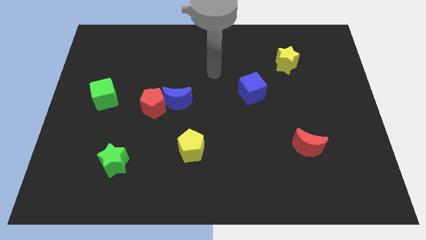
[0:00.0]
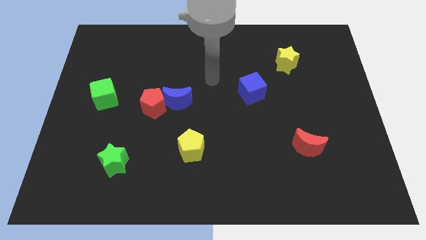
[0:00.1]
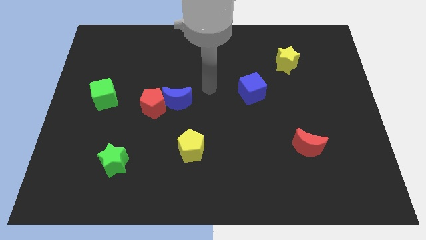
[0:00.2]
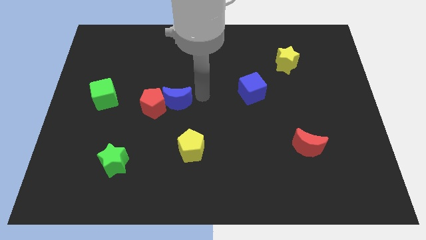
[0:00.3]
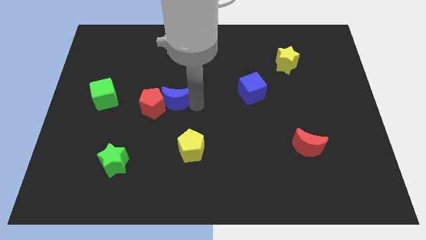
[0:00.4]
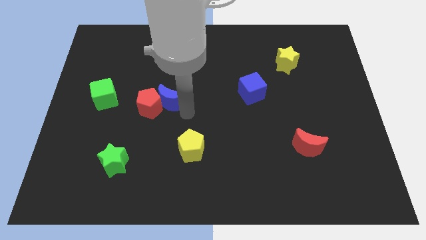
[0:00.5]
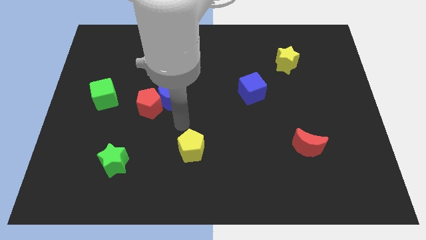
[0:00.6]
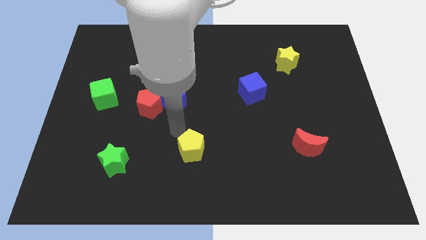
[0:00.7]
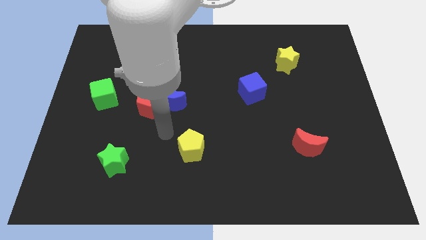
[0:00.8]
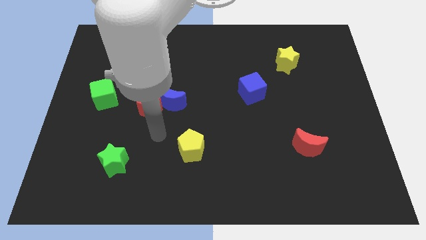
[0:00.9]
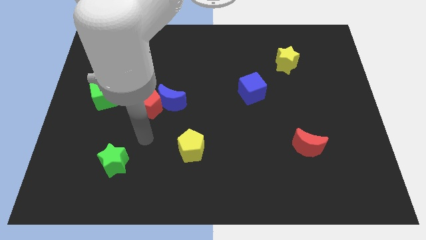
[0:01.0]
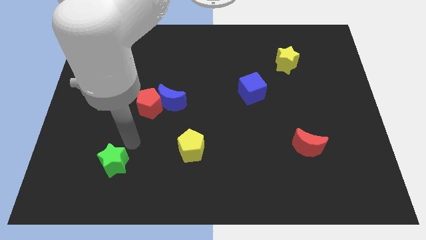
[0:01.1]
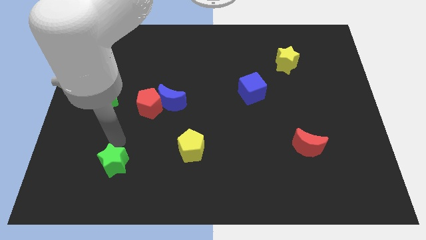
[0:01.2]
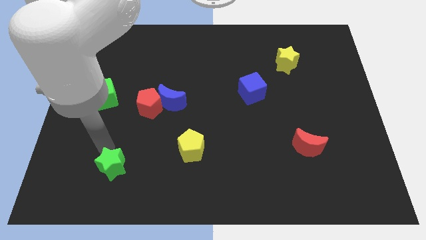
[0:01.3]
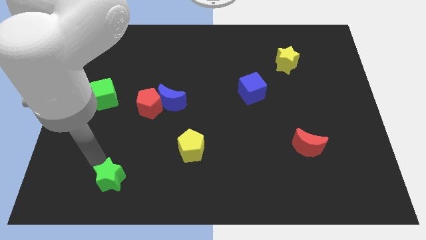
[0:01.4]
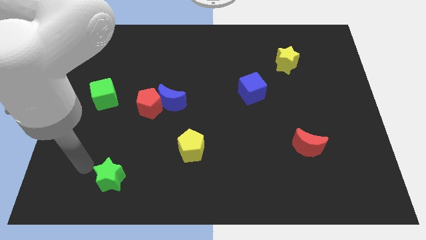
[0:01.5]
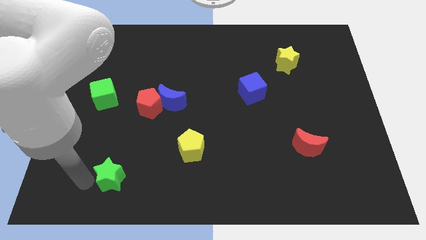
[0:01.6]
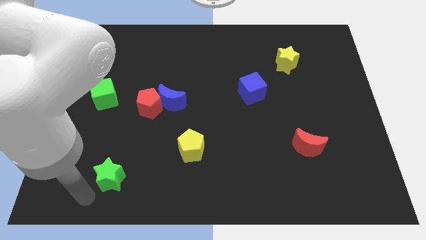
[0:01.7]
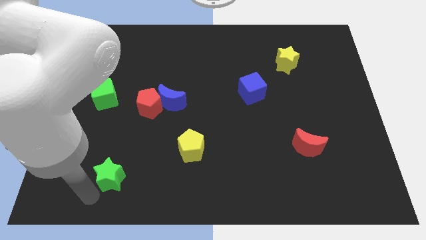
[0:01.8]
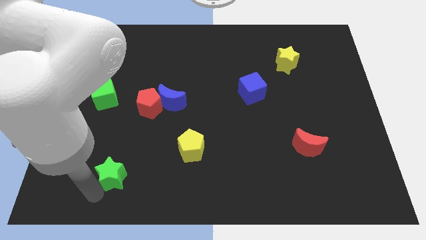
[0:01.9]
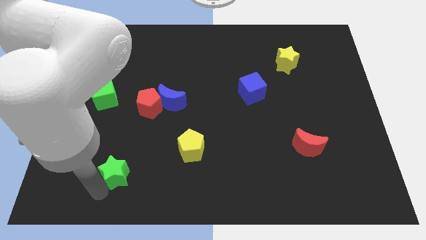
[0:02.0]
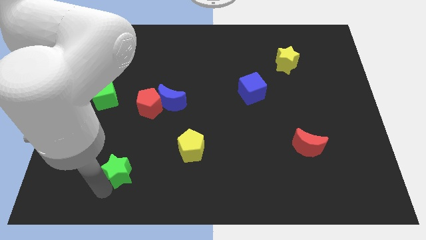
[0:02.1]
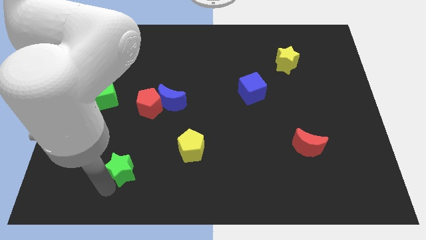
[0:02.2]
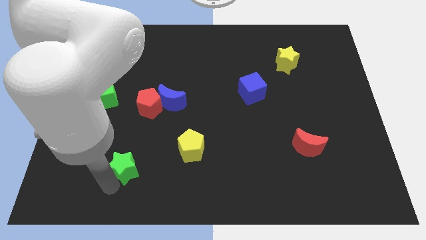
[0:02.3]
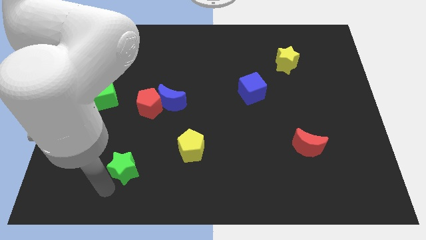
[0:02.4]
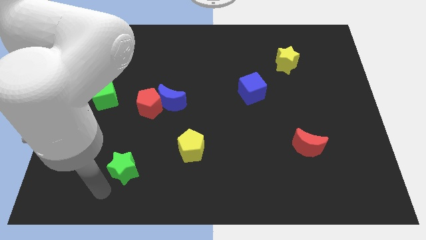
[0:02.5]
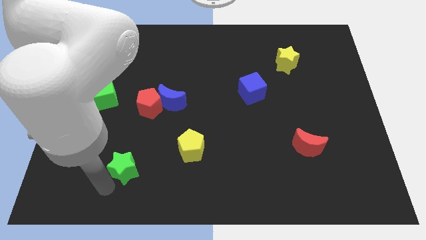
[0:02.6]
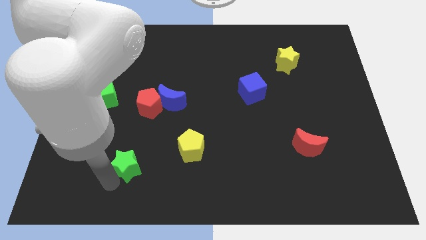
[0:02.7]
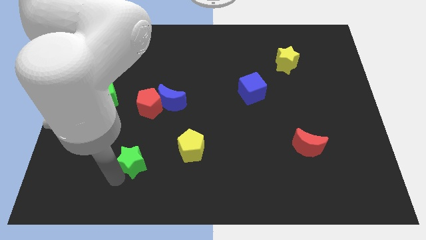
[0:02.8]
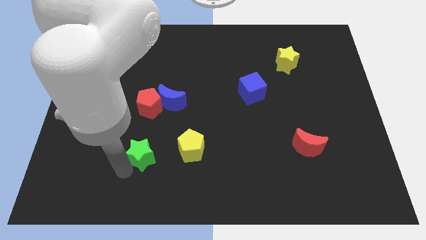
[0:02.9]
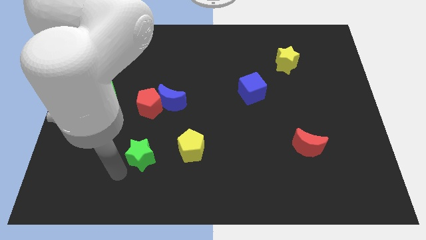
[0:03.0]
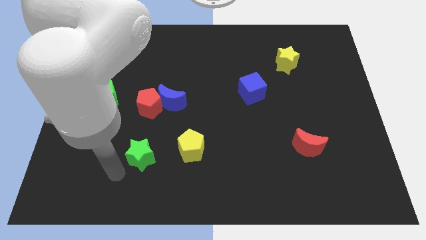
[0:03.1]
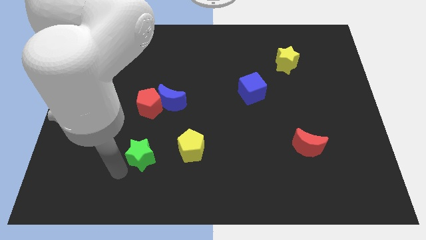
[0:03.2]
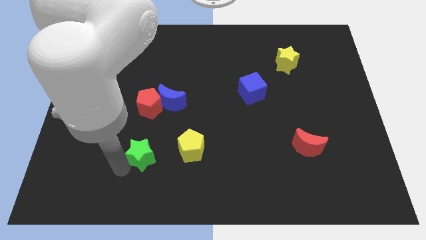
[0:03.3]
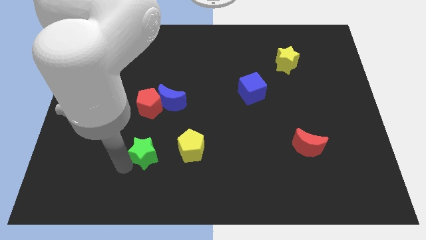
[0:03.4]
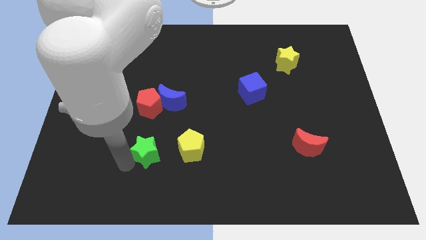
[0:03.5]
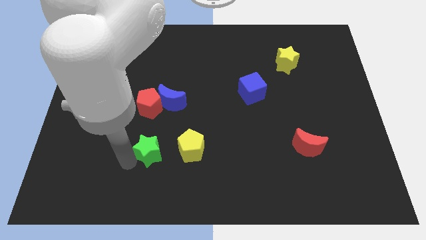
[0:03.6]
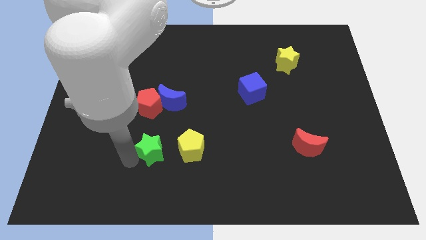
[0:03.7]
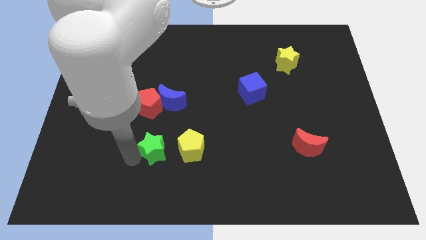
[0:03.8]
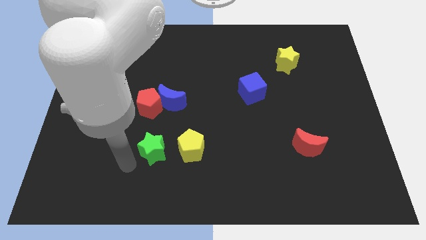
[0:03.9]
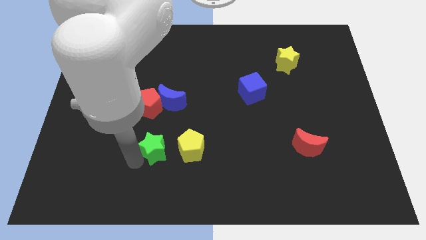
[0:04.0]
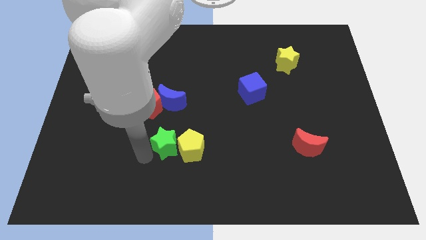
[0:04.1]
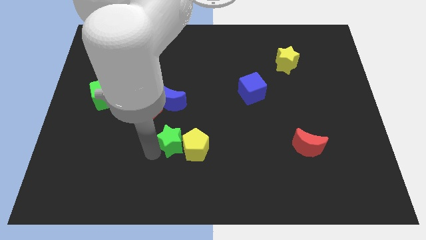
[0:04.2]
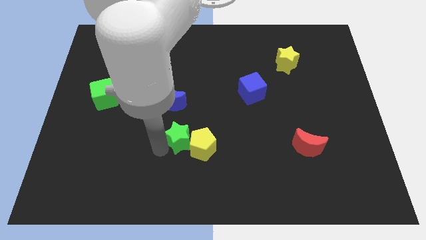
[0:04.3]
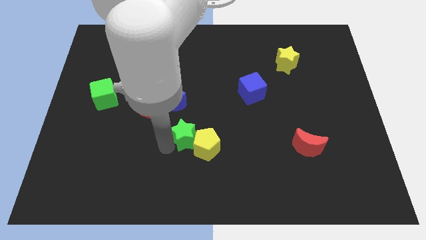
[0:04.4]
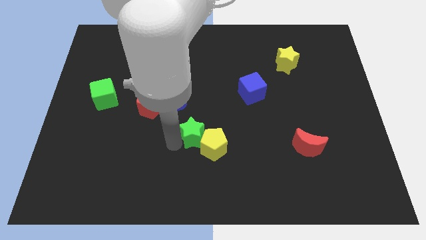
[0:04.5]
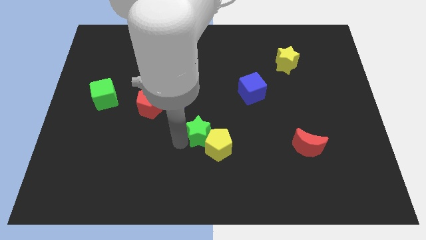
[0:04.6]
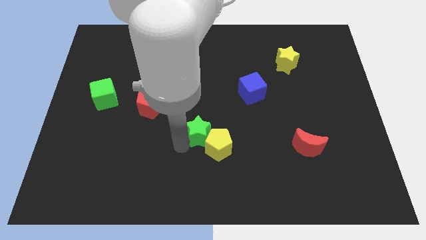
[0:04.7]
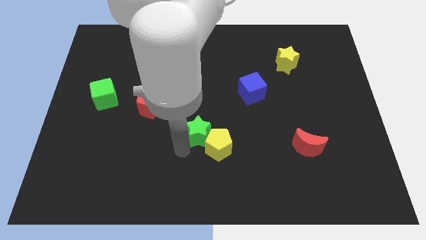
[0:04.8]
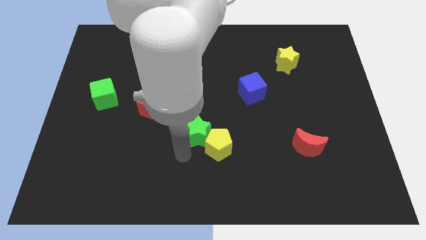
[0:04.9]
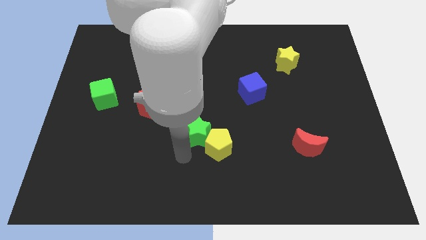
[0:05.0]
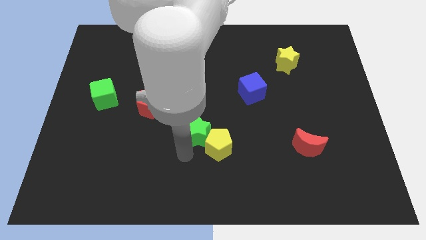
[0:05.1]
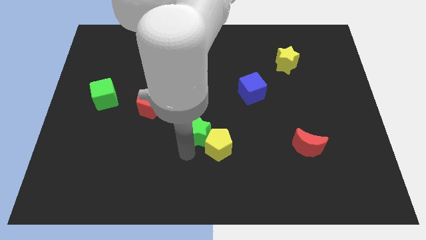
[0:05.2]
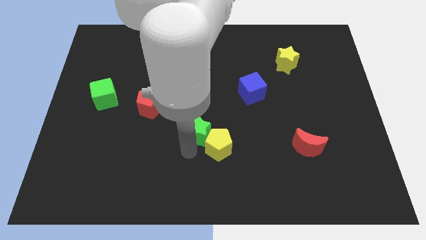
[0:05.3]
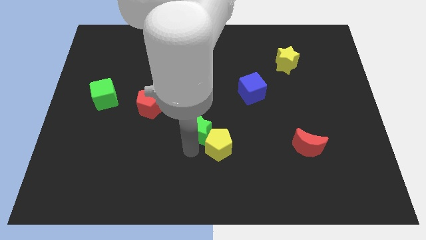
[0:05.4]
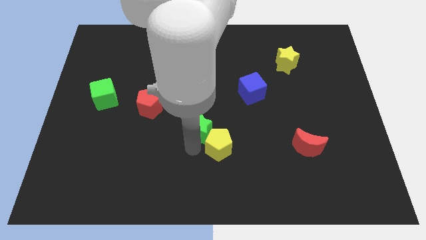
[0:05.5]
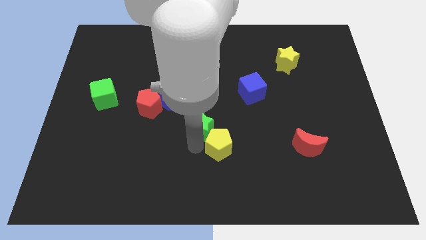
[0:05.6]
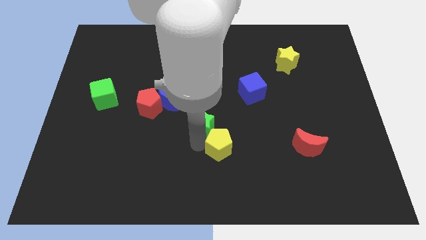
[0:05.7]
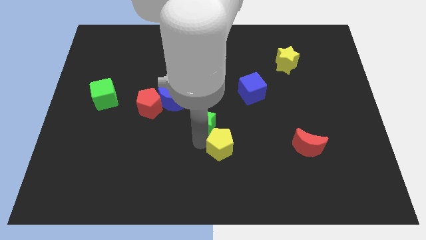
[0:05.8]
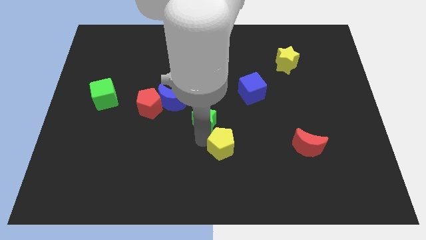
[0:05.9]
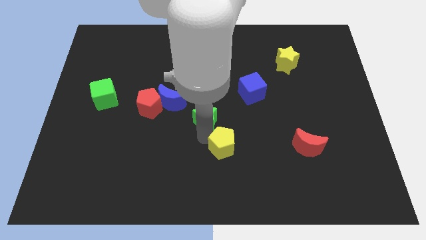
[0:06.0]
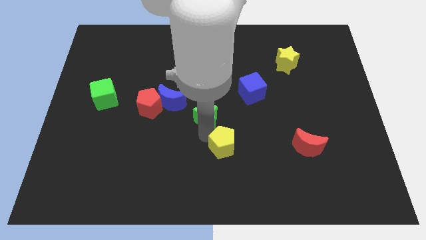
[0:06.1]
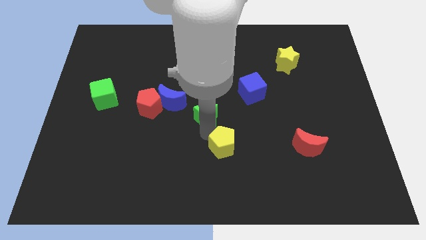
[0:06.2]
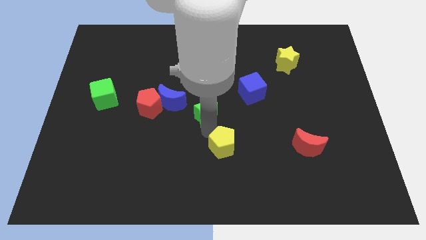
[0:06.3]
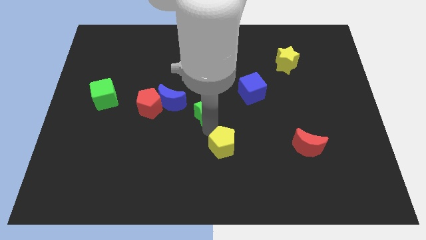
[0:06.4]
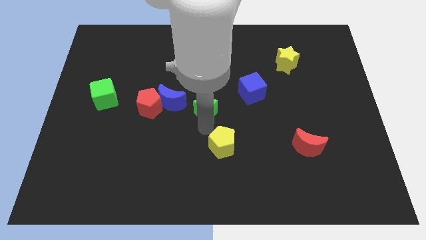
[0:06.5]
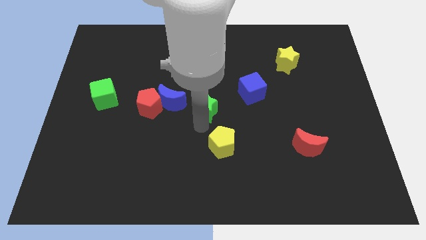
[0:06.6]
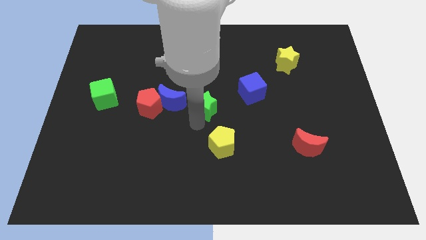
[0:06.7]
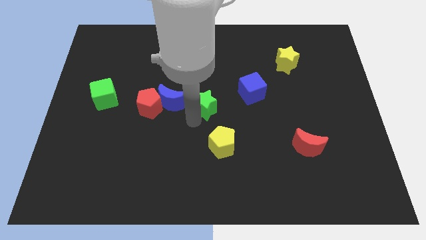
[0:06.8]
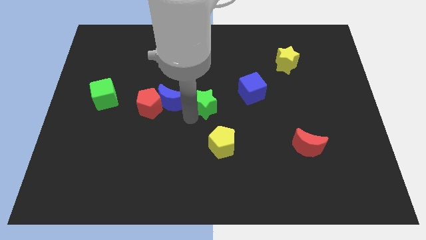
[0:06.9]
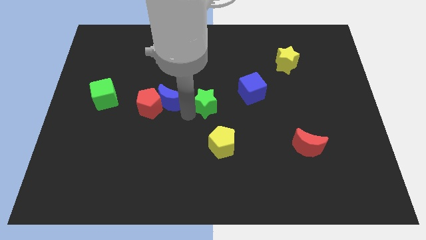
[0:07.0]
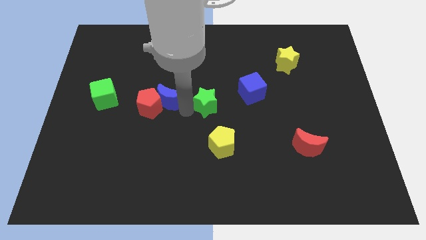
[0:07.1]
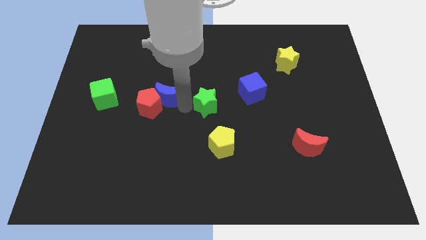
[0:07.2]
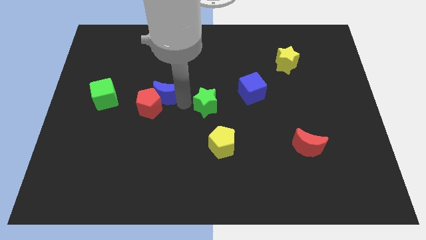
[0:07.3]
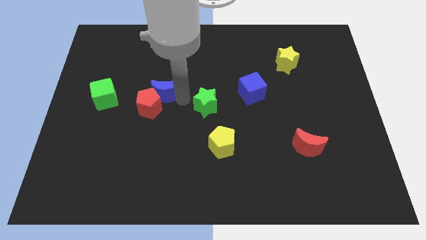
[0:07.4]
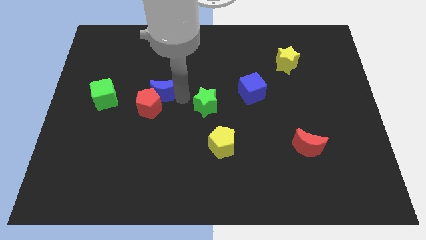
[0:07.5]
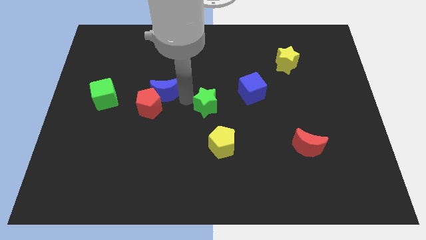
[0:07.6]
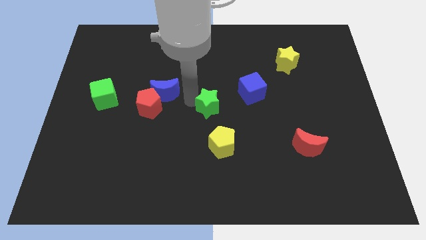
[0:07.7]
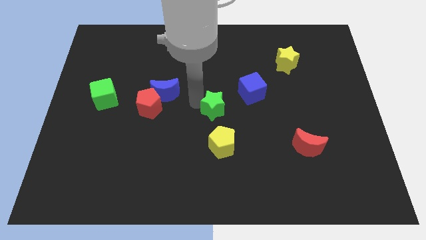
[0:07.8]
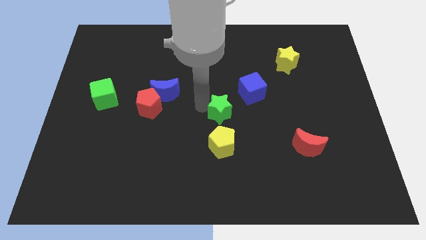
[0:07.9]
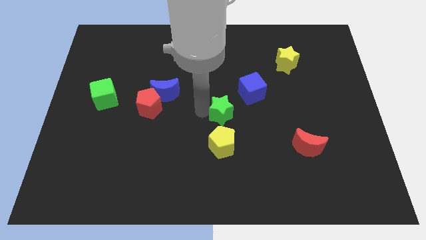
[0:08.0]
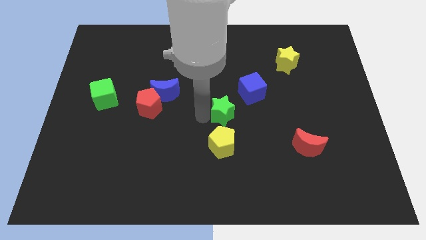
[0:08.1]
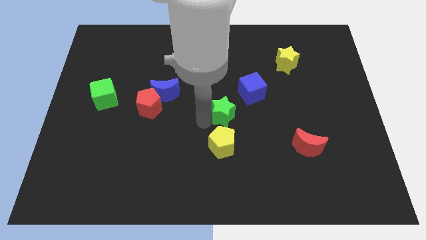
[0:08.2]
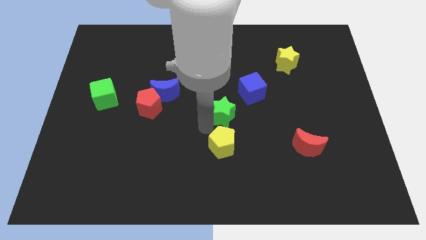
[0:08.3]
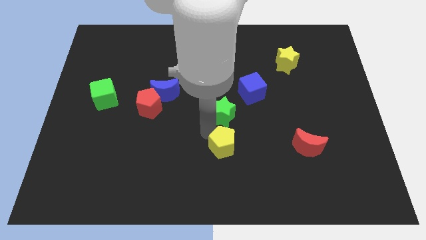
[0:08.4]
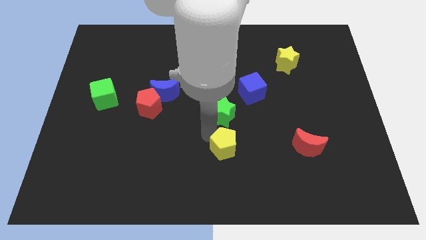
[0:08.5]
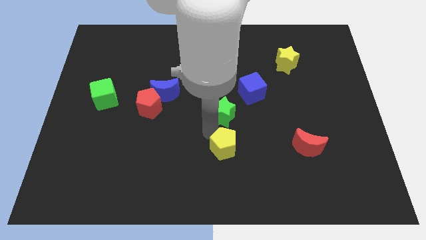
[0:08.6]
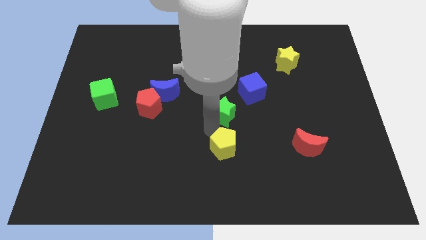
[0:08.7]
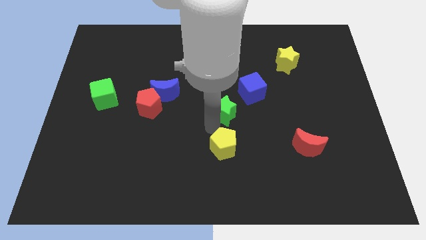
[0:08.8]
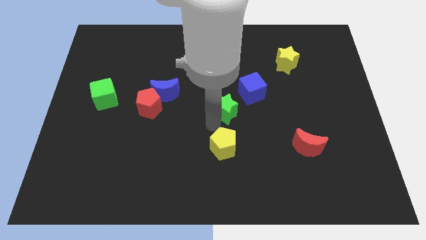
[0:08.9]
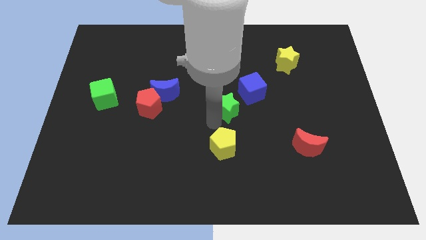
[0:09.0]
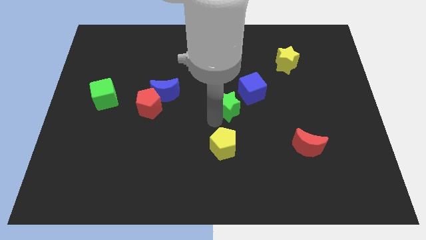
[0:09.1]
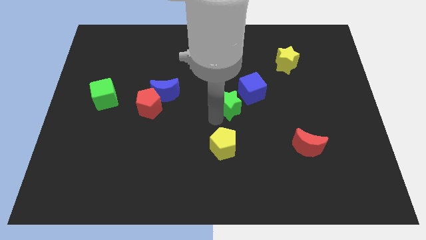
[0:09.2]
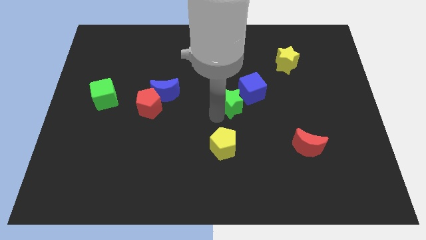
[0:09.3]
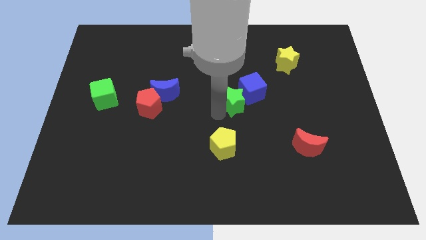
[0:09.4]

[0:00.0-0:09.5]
move the green star towards the blue cube
